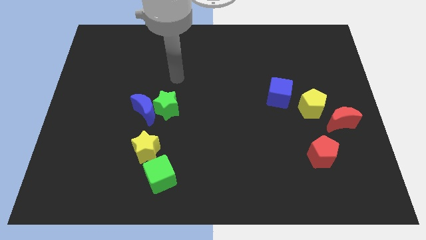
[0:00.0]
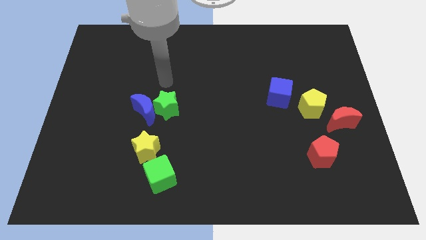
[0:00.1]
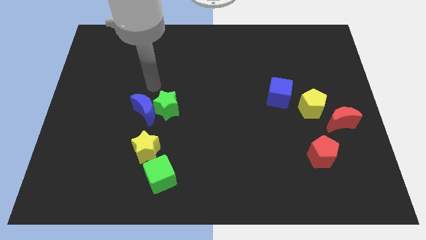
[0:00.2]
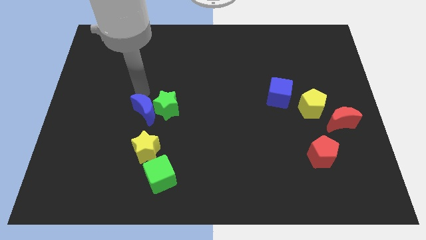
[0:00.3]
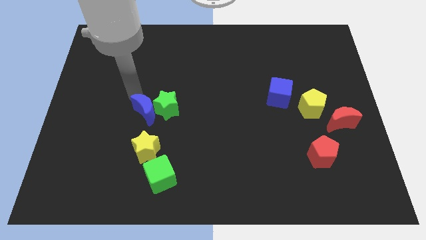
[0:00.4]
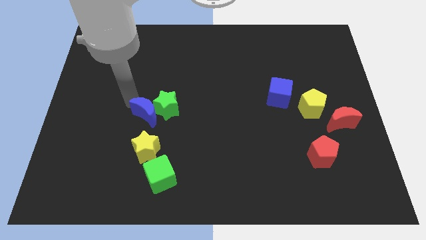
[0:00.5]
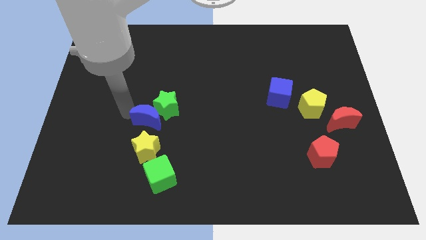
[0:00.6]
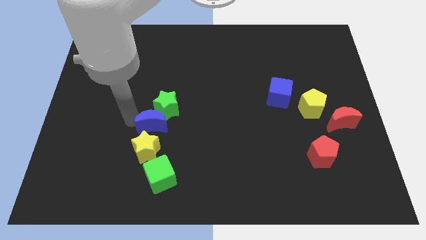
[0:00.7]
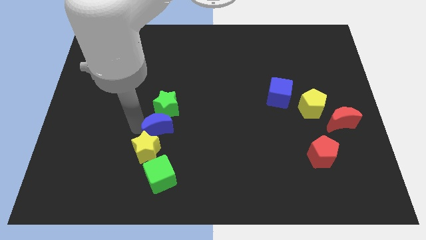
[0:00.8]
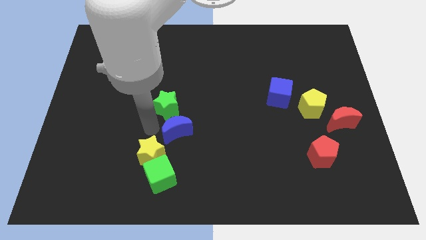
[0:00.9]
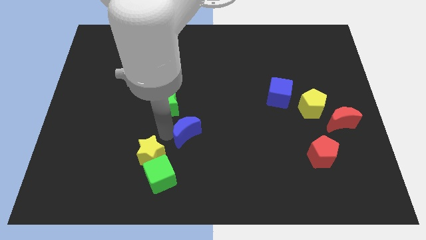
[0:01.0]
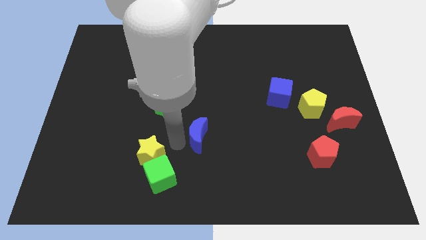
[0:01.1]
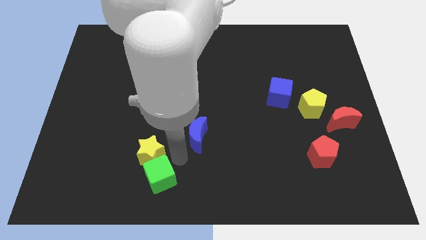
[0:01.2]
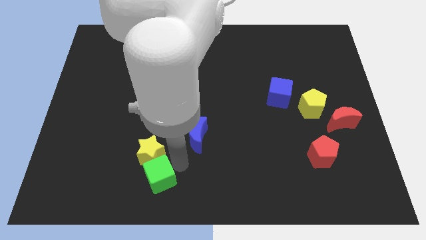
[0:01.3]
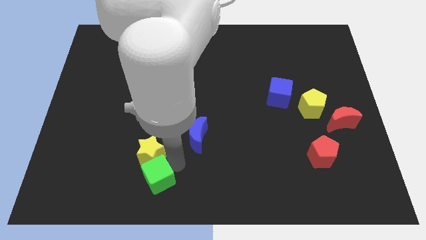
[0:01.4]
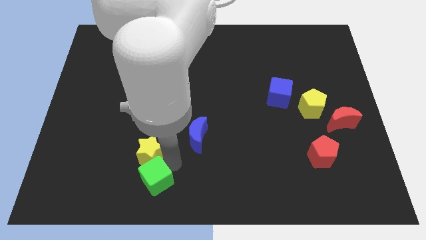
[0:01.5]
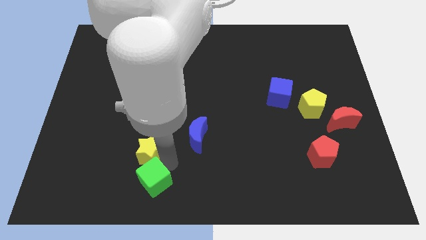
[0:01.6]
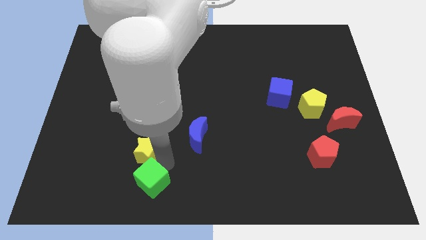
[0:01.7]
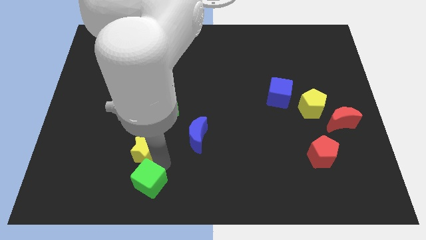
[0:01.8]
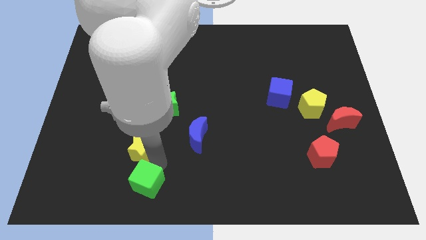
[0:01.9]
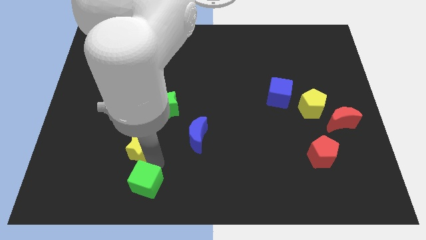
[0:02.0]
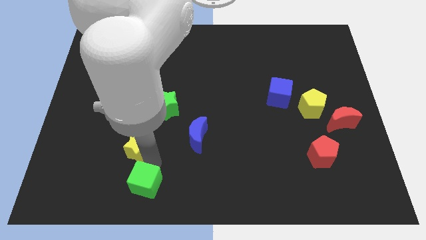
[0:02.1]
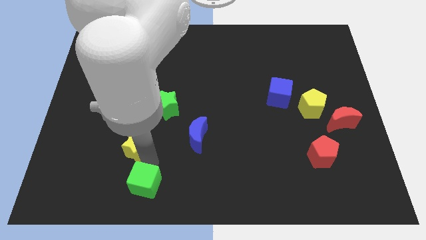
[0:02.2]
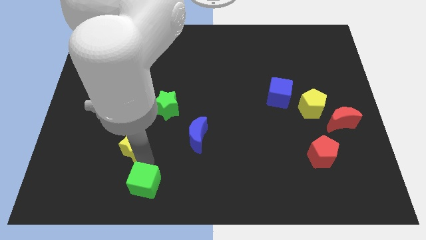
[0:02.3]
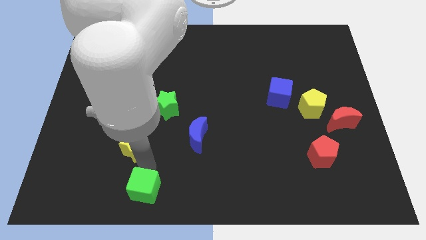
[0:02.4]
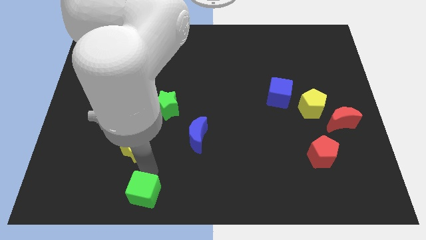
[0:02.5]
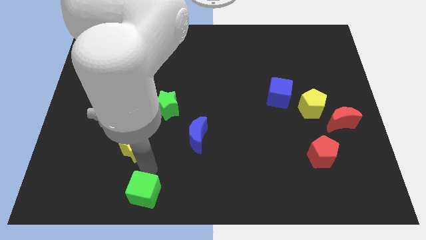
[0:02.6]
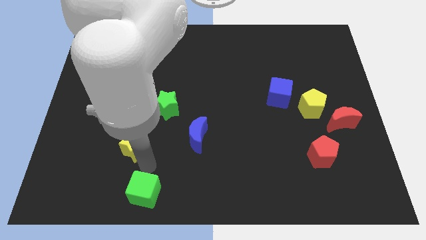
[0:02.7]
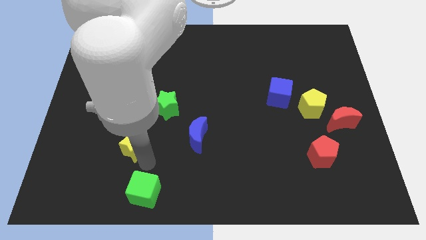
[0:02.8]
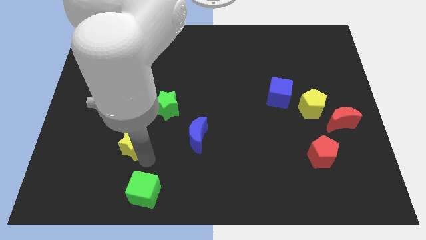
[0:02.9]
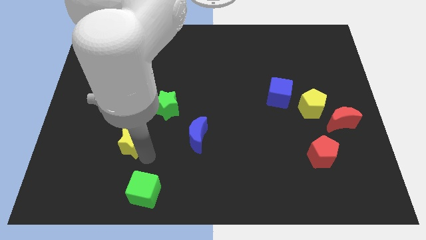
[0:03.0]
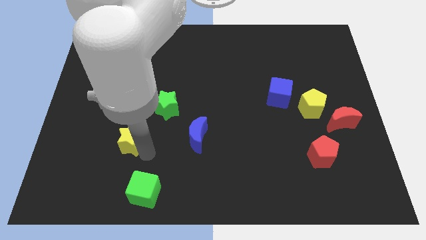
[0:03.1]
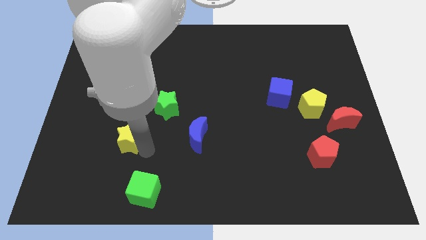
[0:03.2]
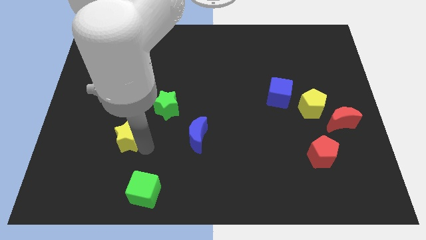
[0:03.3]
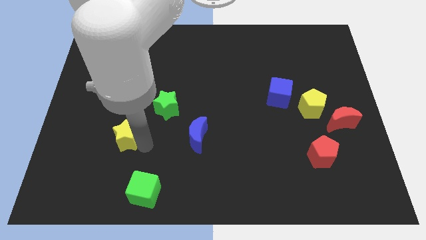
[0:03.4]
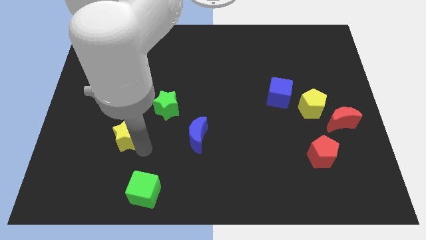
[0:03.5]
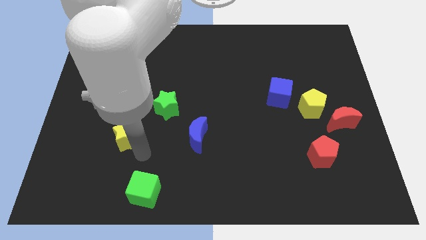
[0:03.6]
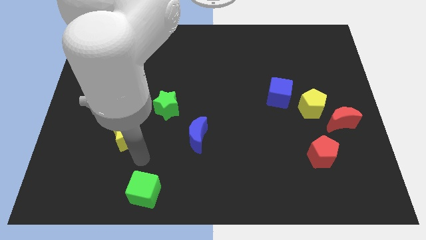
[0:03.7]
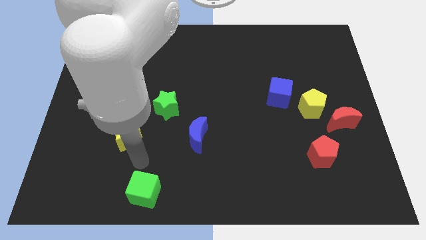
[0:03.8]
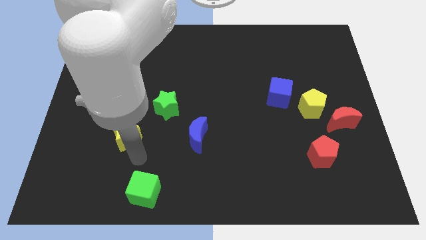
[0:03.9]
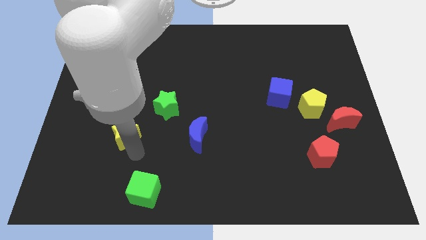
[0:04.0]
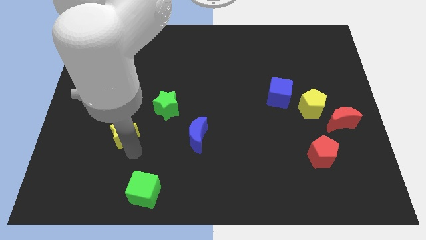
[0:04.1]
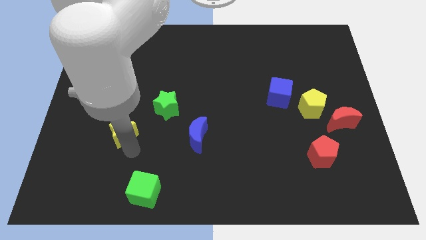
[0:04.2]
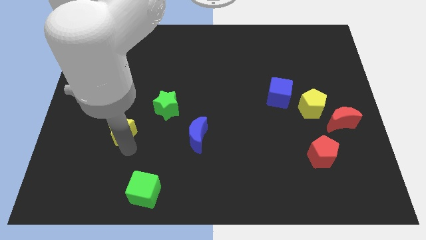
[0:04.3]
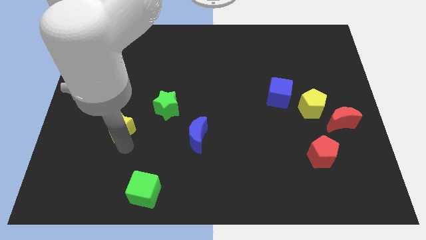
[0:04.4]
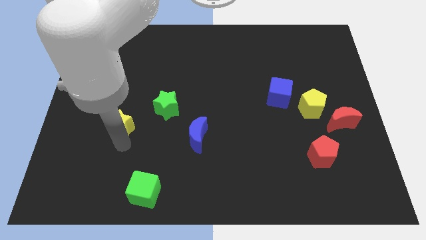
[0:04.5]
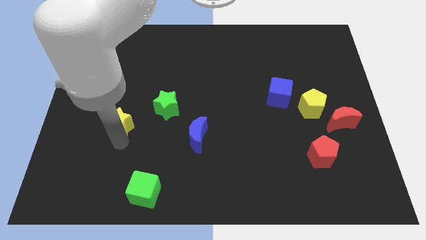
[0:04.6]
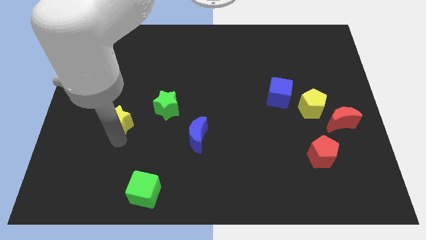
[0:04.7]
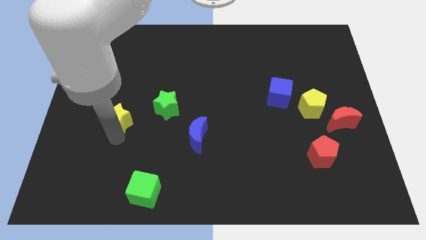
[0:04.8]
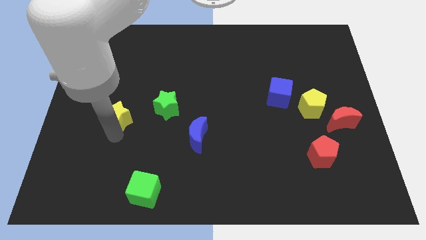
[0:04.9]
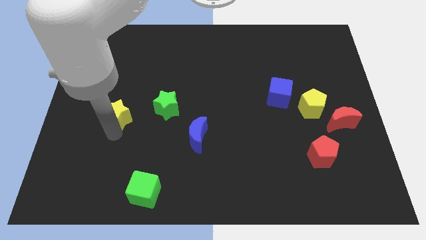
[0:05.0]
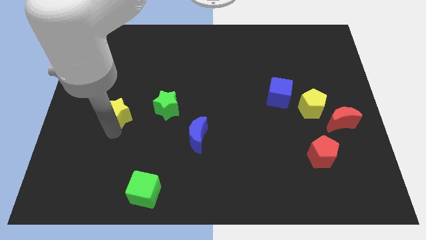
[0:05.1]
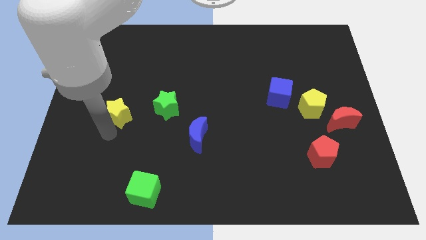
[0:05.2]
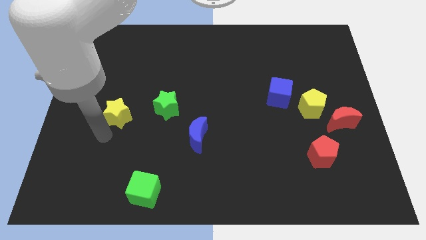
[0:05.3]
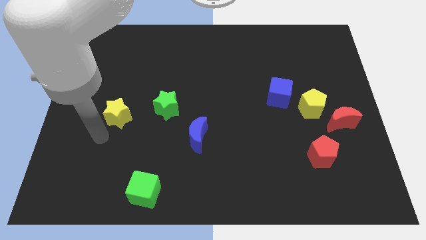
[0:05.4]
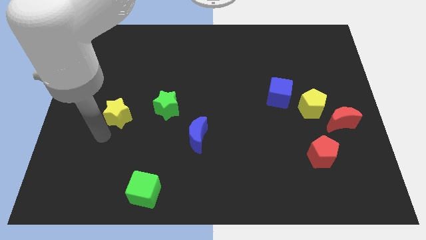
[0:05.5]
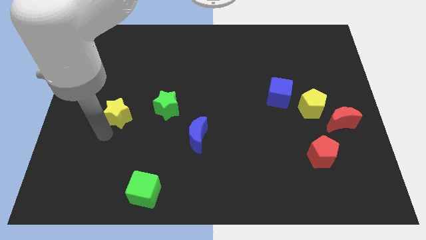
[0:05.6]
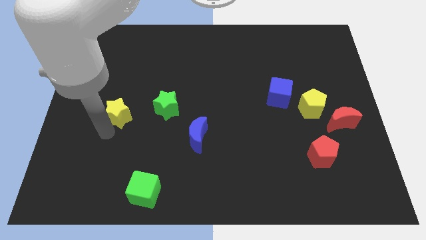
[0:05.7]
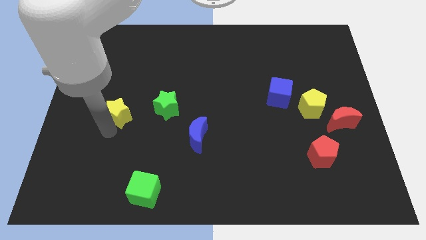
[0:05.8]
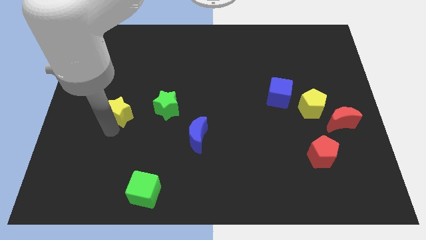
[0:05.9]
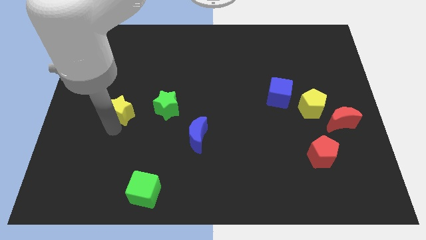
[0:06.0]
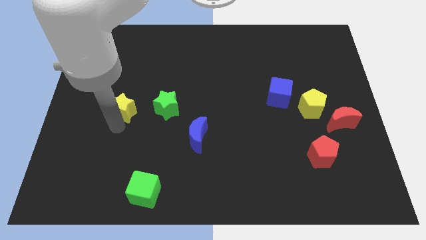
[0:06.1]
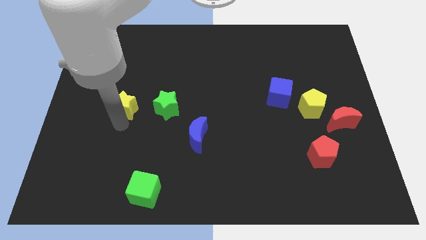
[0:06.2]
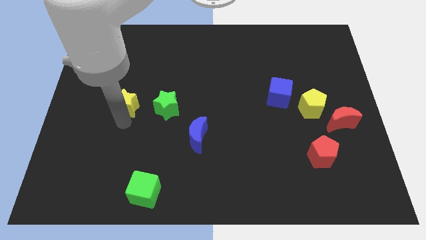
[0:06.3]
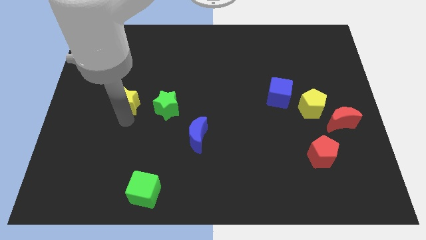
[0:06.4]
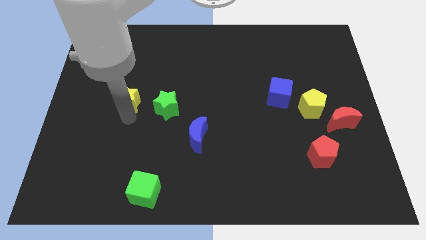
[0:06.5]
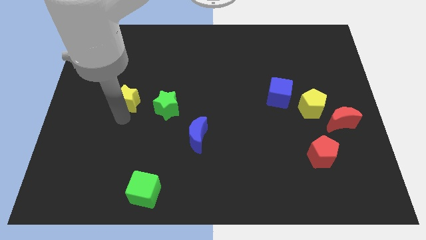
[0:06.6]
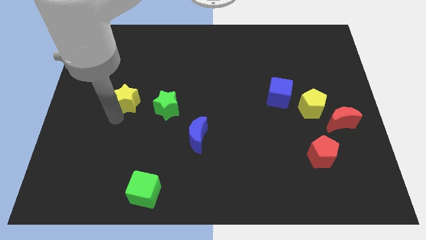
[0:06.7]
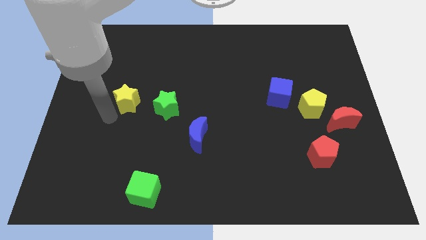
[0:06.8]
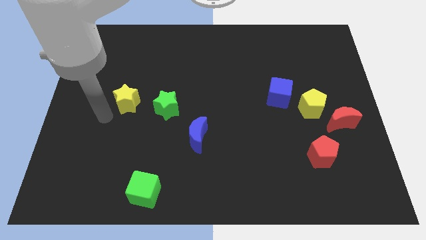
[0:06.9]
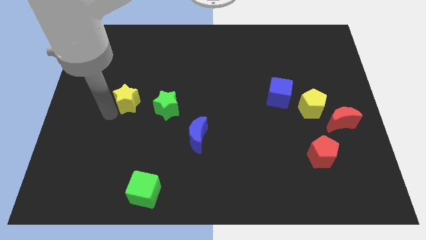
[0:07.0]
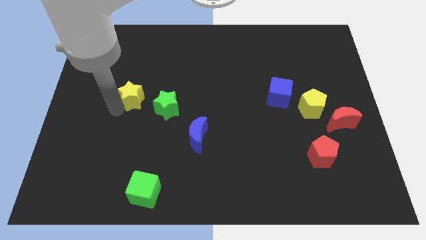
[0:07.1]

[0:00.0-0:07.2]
push the yellow star diagonally up and to the left of the green star
